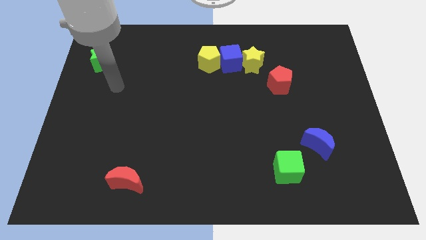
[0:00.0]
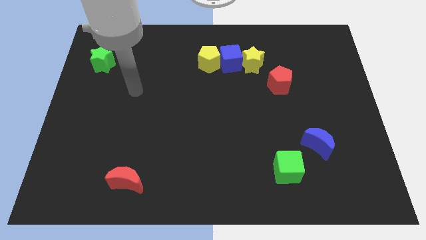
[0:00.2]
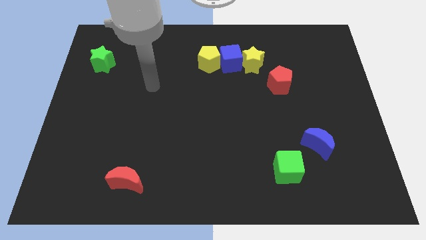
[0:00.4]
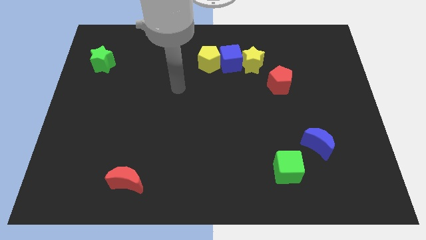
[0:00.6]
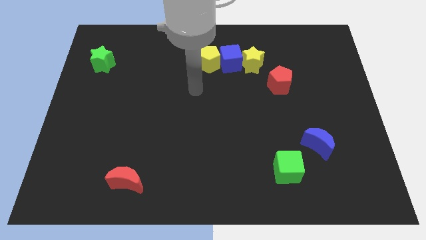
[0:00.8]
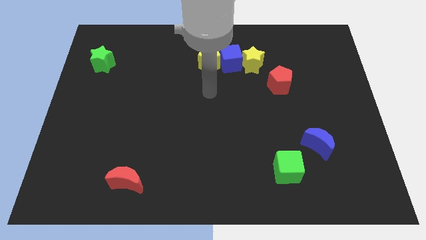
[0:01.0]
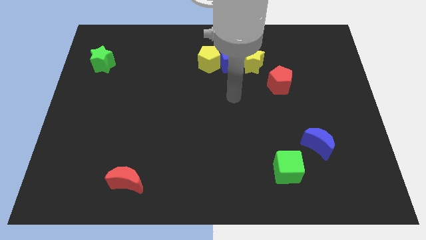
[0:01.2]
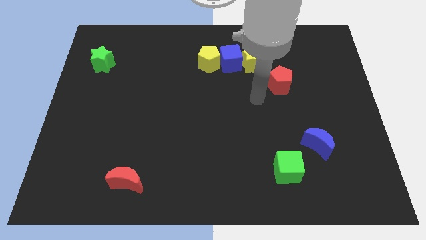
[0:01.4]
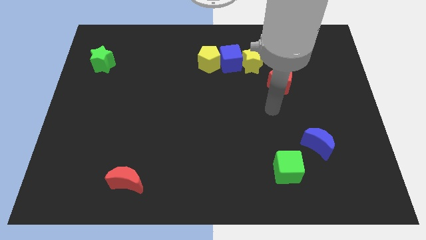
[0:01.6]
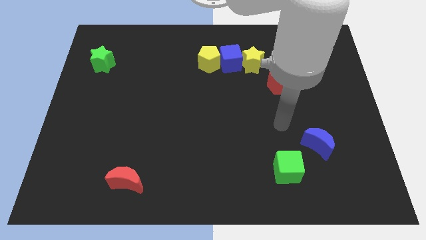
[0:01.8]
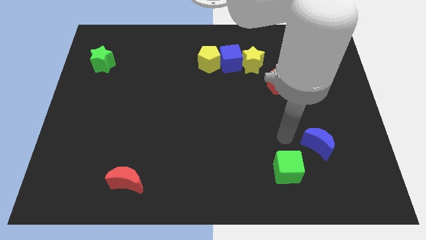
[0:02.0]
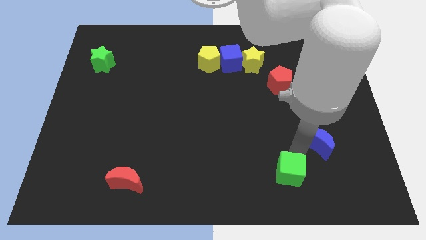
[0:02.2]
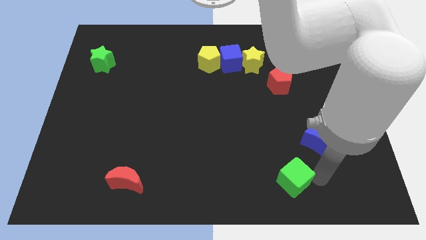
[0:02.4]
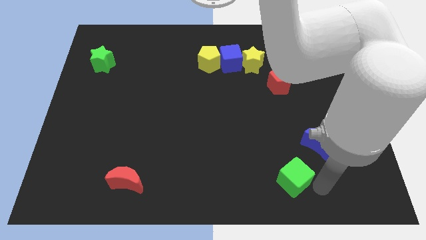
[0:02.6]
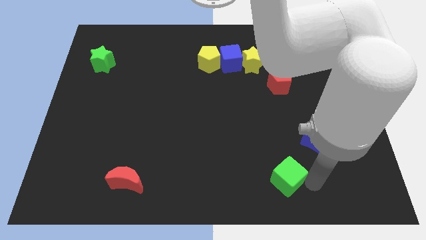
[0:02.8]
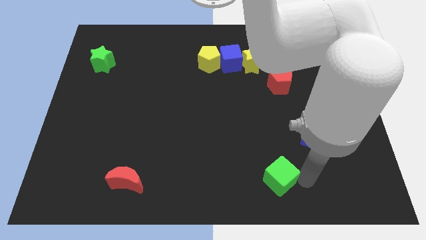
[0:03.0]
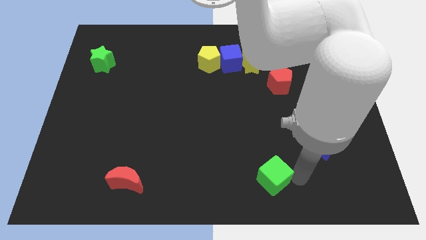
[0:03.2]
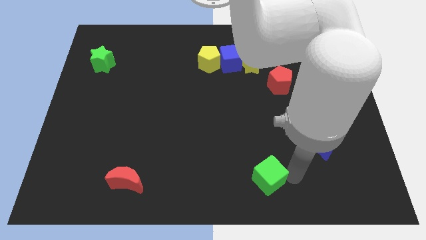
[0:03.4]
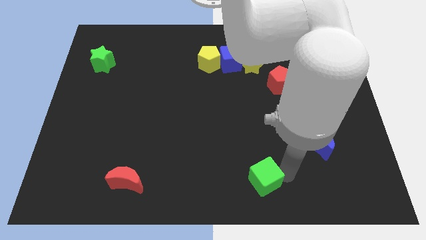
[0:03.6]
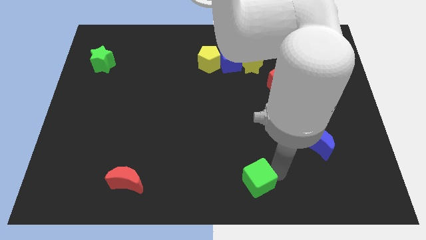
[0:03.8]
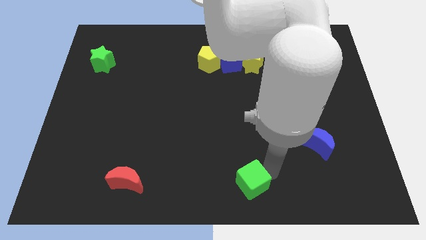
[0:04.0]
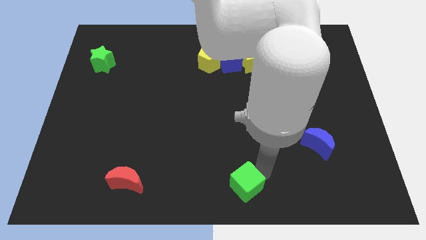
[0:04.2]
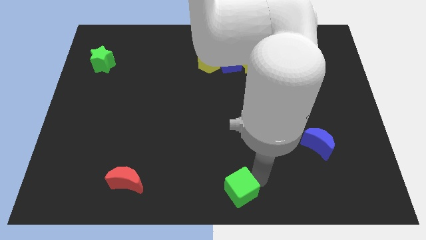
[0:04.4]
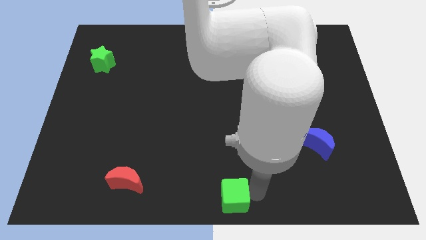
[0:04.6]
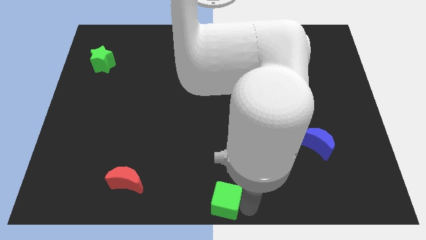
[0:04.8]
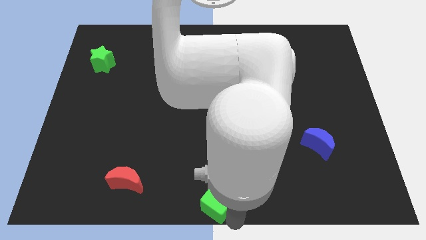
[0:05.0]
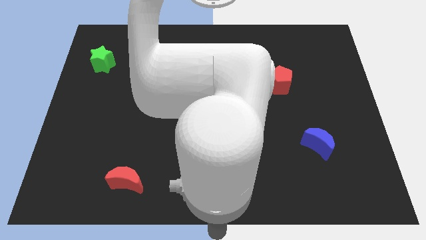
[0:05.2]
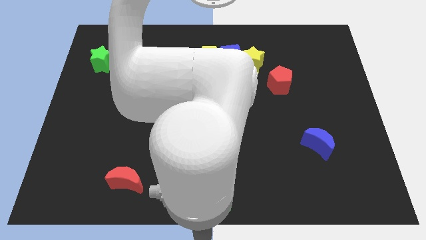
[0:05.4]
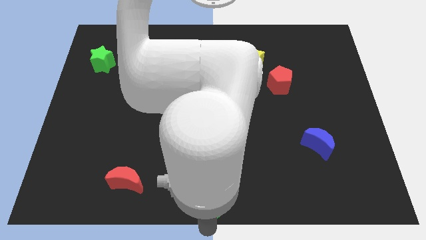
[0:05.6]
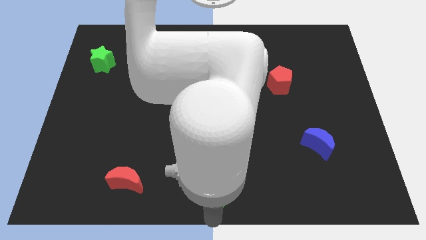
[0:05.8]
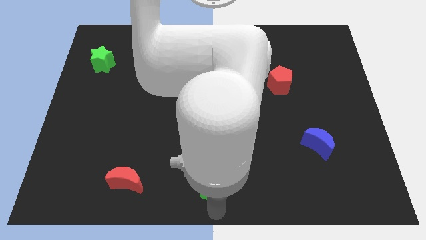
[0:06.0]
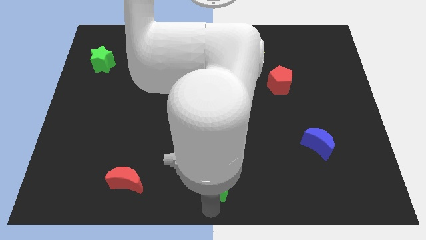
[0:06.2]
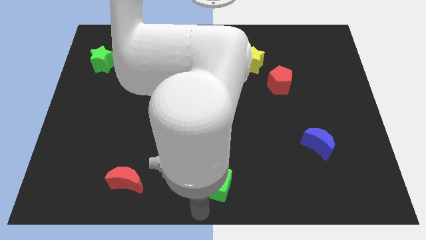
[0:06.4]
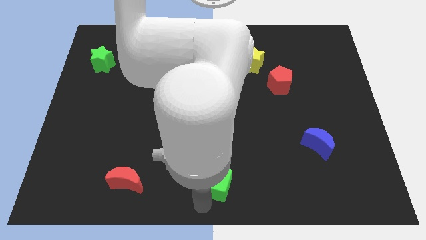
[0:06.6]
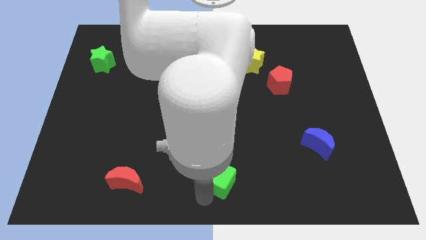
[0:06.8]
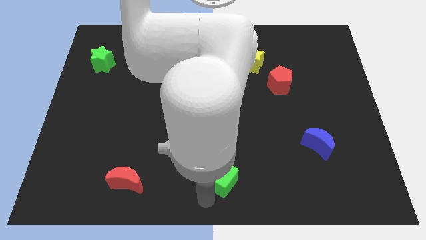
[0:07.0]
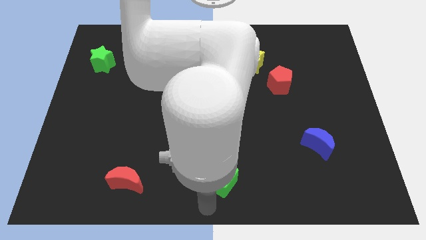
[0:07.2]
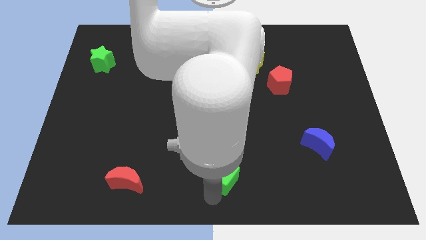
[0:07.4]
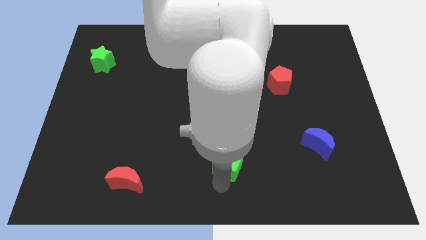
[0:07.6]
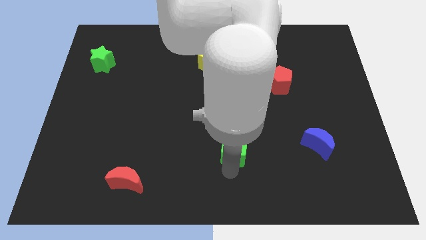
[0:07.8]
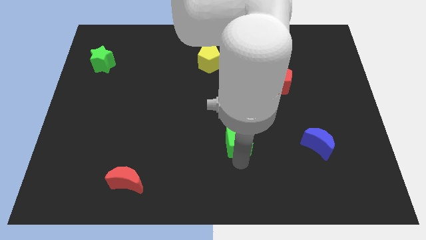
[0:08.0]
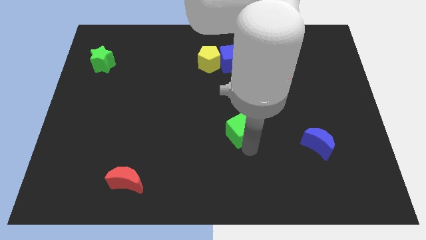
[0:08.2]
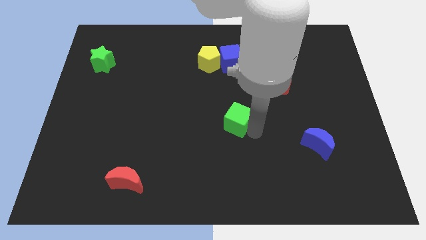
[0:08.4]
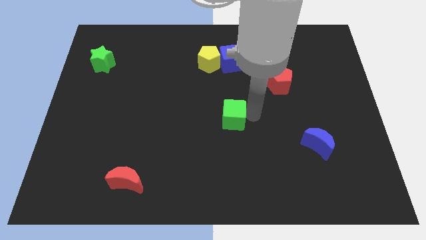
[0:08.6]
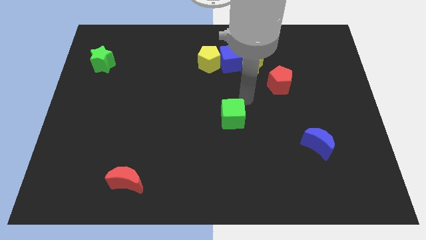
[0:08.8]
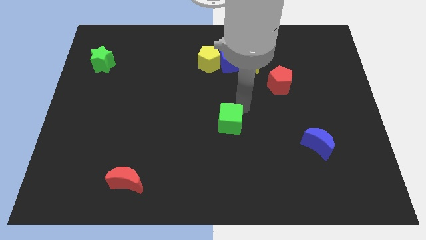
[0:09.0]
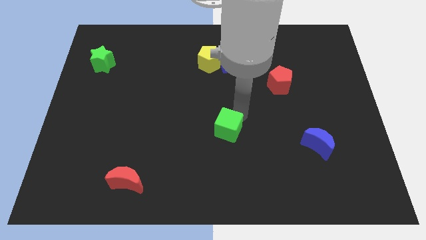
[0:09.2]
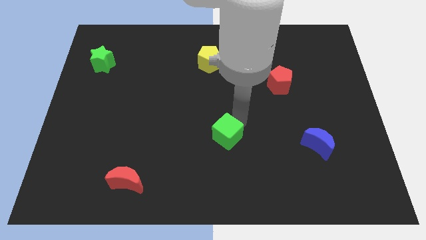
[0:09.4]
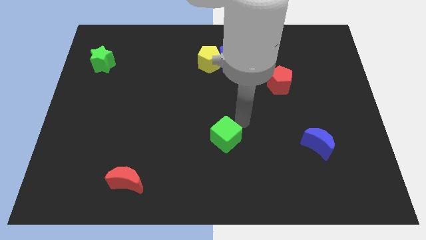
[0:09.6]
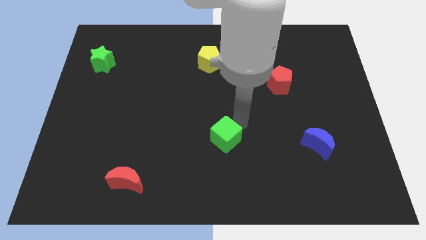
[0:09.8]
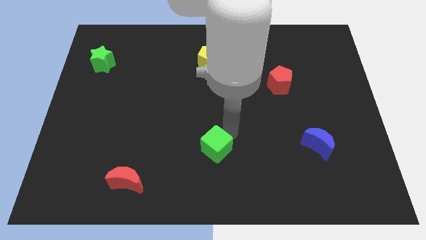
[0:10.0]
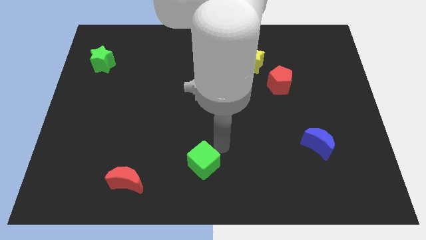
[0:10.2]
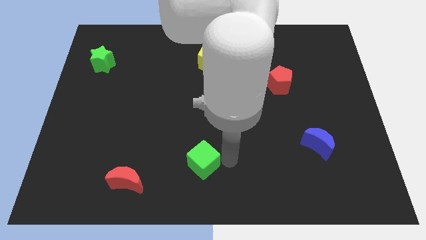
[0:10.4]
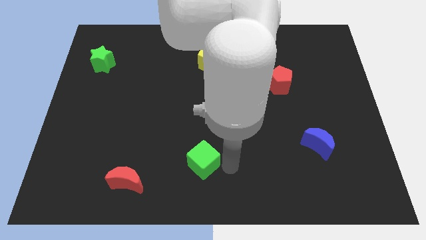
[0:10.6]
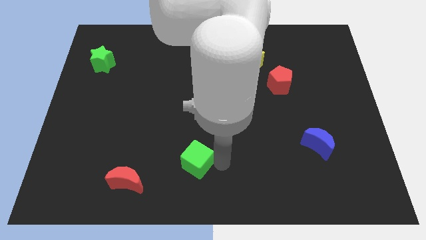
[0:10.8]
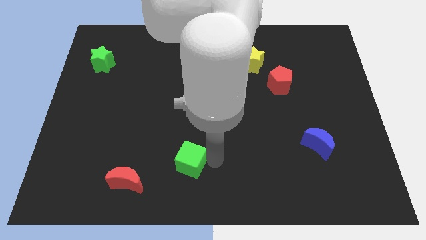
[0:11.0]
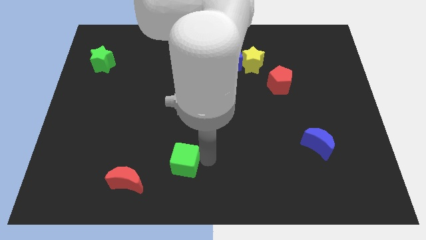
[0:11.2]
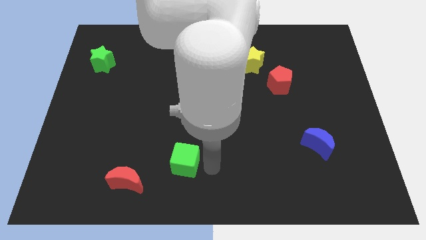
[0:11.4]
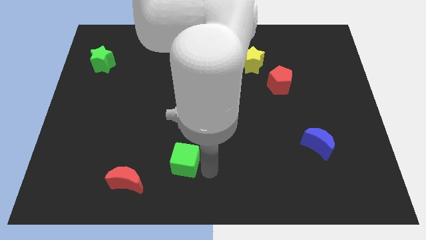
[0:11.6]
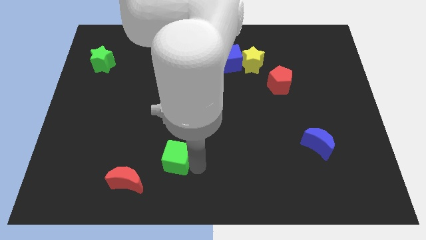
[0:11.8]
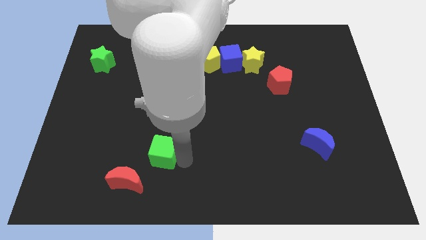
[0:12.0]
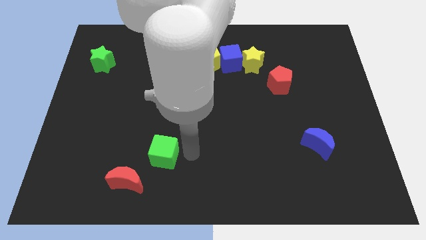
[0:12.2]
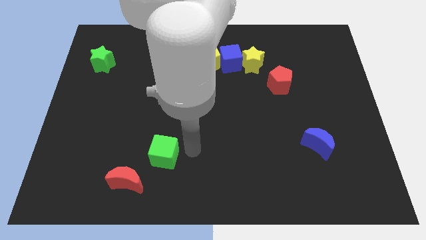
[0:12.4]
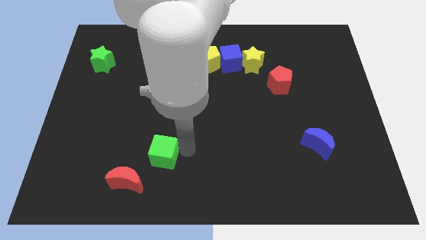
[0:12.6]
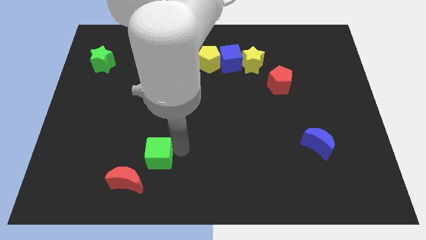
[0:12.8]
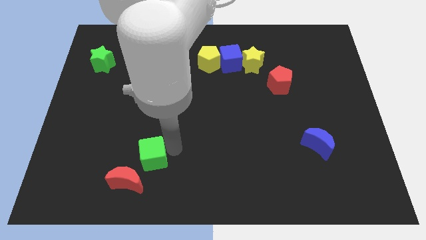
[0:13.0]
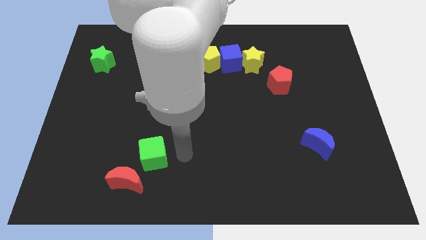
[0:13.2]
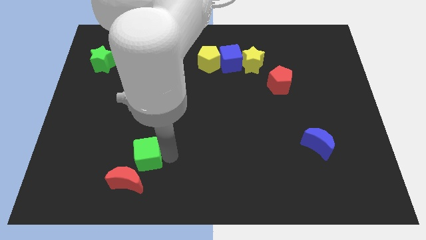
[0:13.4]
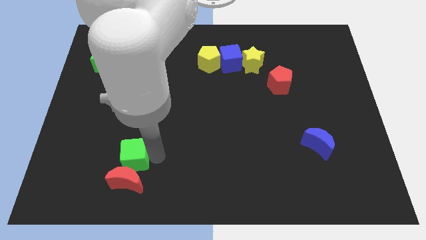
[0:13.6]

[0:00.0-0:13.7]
put the green cube to the top left side of the red moon

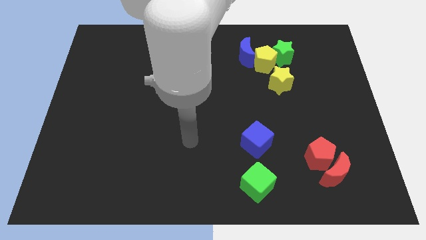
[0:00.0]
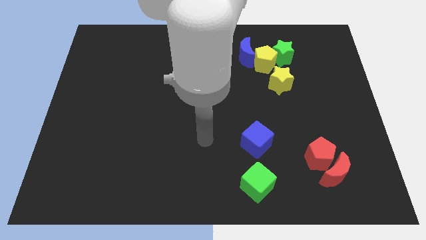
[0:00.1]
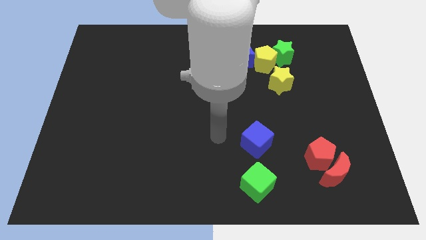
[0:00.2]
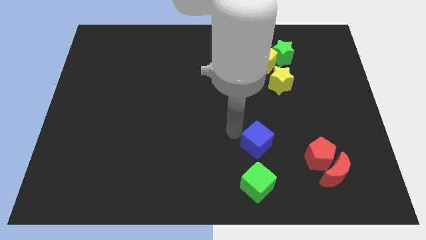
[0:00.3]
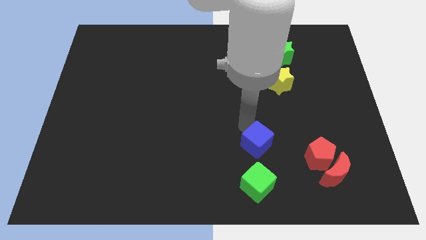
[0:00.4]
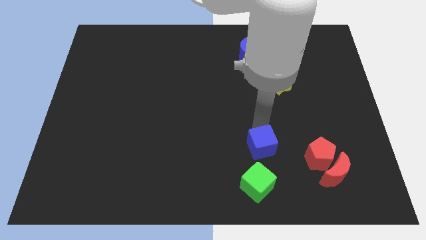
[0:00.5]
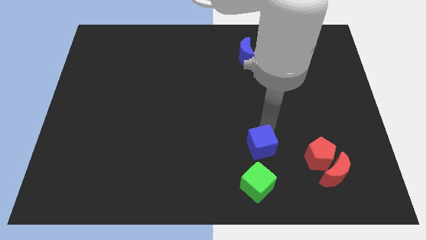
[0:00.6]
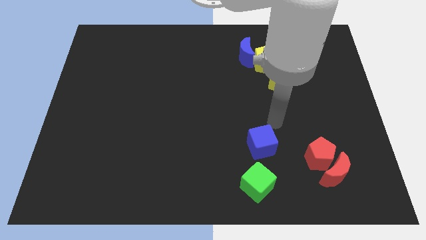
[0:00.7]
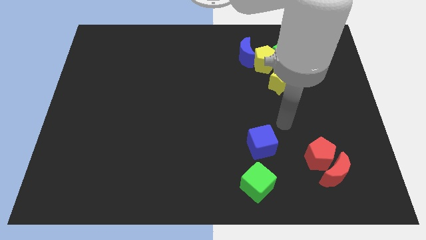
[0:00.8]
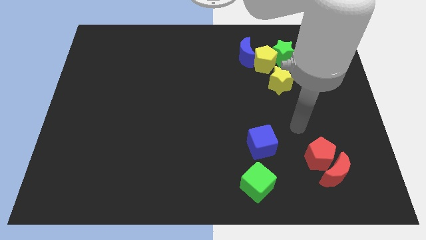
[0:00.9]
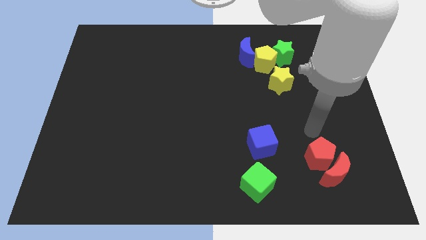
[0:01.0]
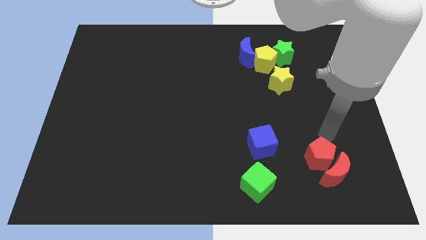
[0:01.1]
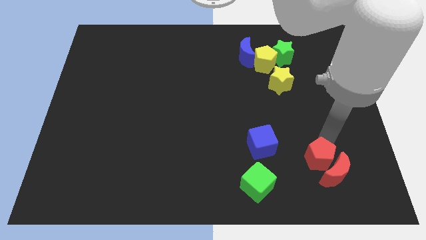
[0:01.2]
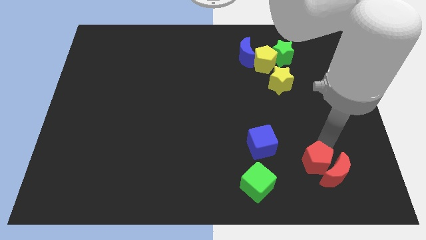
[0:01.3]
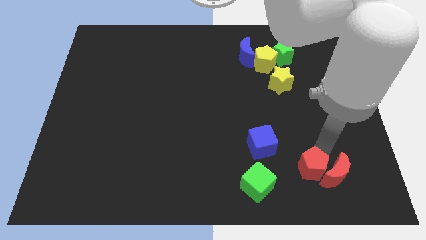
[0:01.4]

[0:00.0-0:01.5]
put the red pentagon right of the green cube
